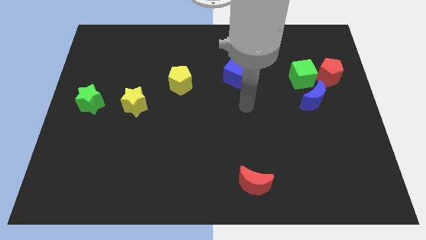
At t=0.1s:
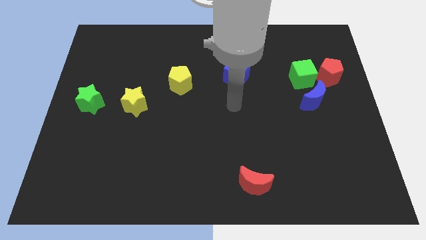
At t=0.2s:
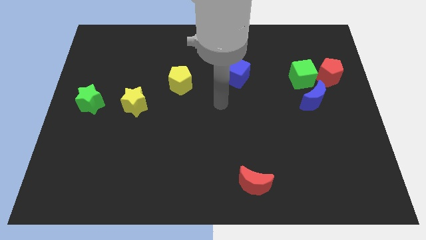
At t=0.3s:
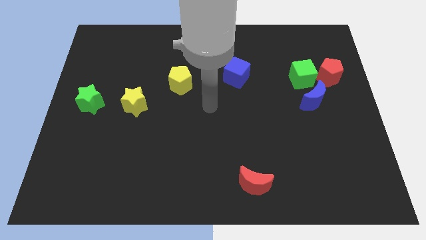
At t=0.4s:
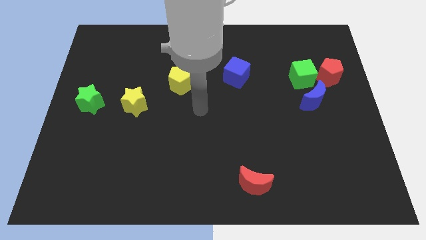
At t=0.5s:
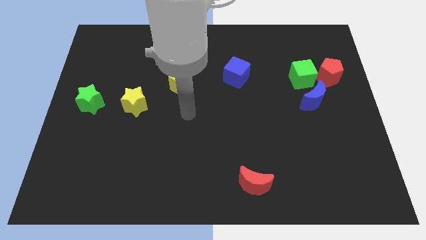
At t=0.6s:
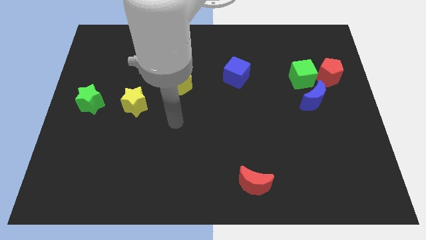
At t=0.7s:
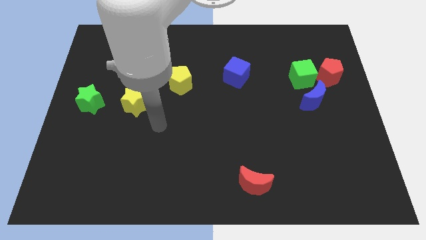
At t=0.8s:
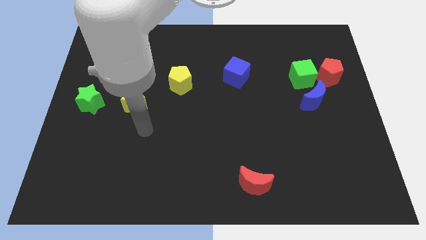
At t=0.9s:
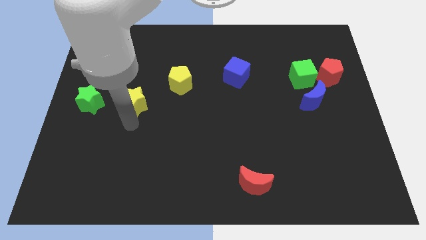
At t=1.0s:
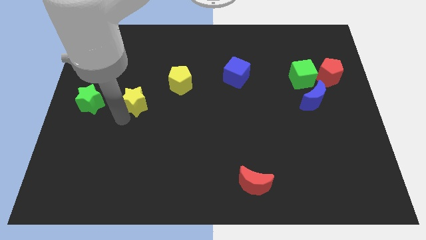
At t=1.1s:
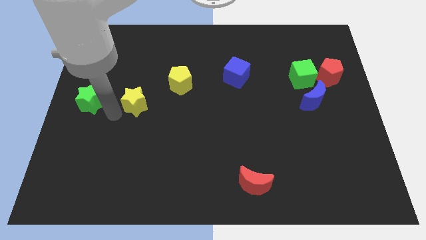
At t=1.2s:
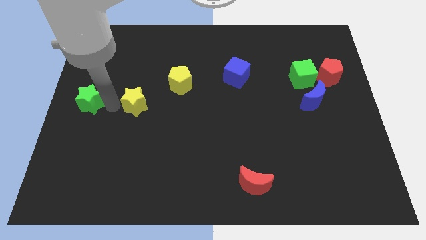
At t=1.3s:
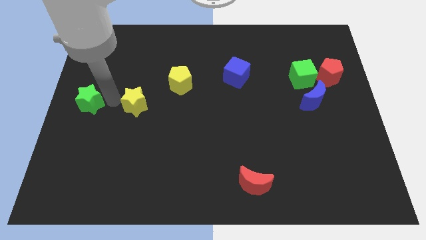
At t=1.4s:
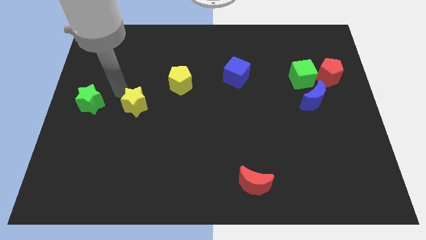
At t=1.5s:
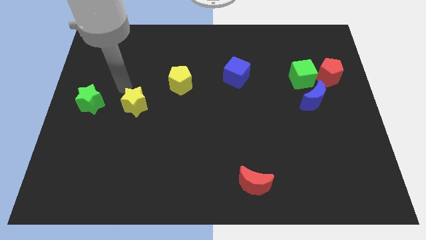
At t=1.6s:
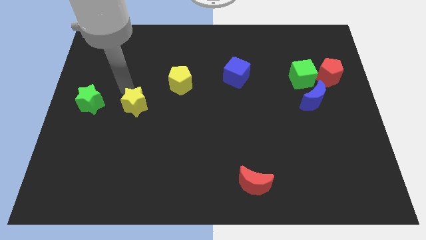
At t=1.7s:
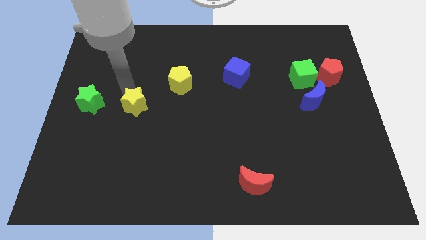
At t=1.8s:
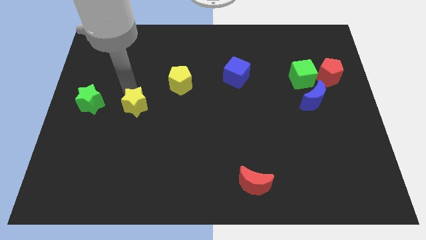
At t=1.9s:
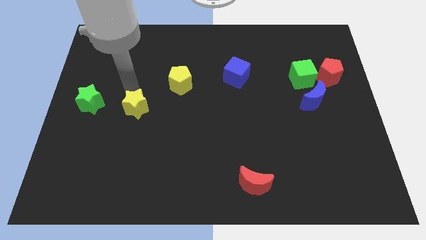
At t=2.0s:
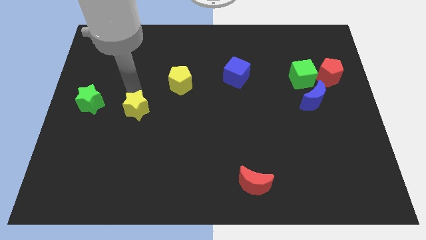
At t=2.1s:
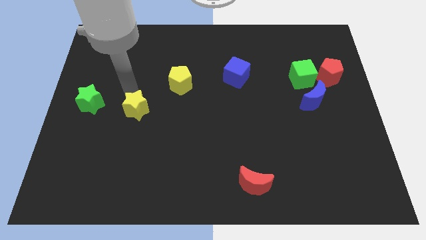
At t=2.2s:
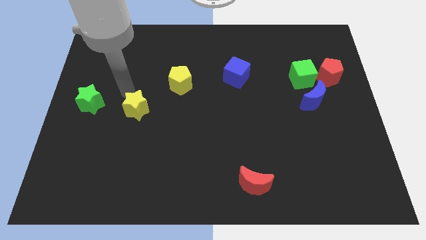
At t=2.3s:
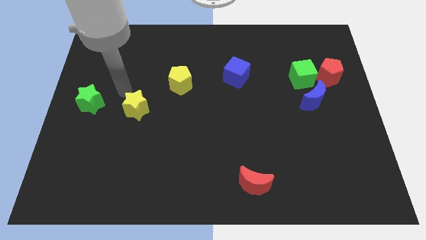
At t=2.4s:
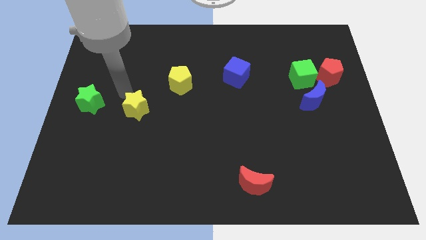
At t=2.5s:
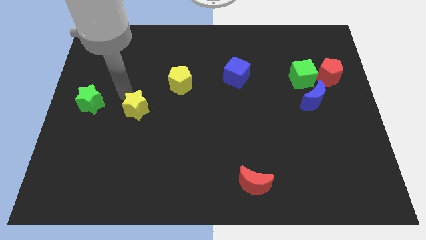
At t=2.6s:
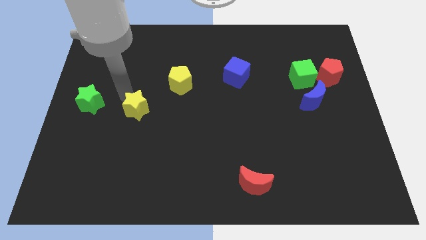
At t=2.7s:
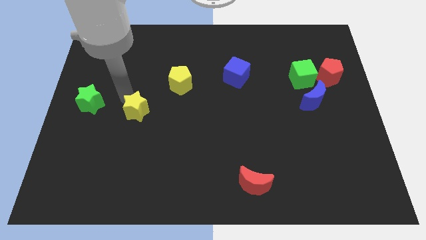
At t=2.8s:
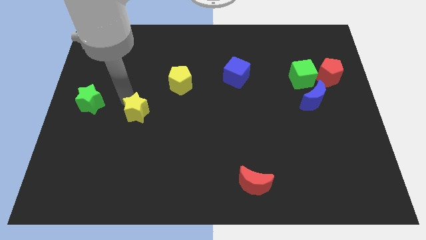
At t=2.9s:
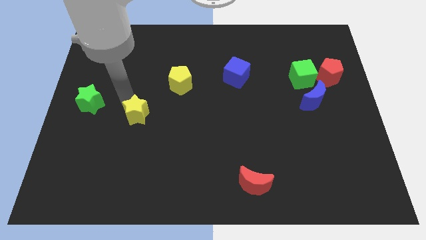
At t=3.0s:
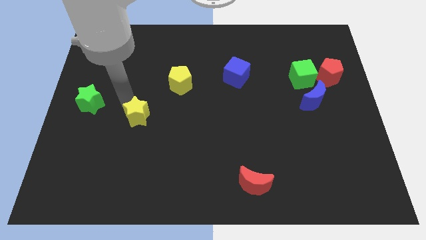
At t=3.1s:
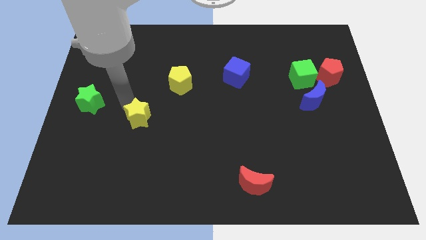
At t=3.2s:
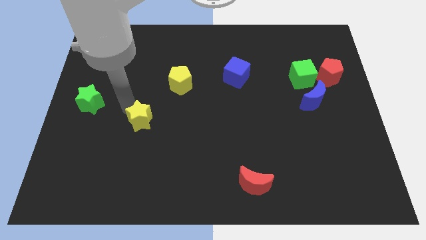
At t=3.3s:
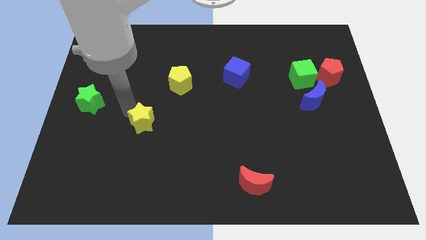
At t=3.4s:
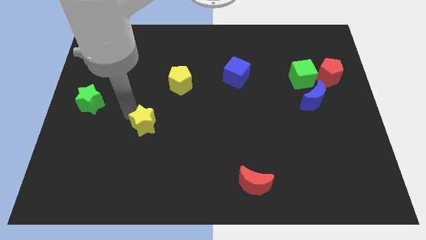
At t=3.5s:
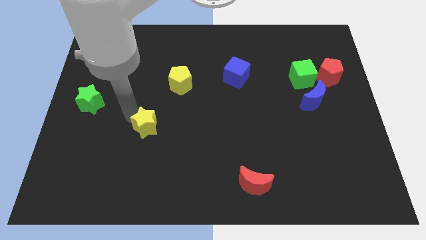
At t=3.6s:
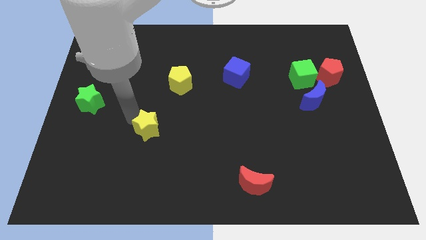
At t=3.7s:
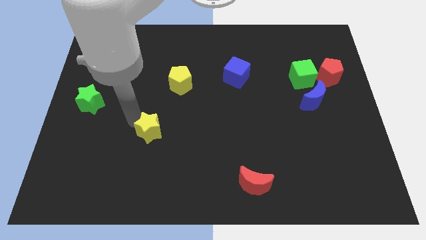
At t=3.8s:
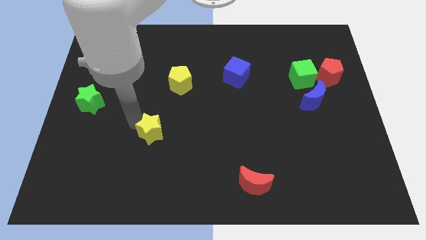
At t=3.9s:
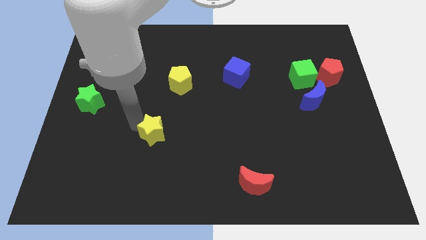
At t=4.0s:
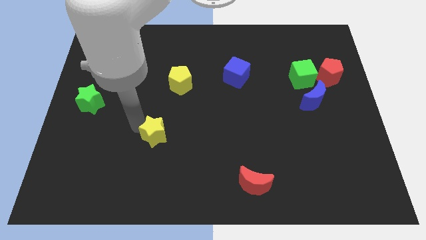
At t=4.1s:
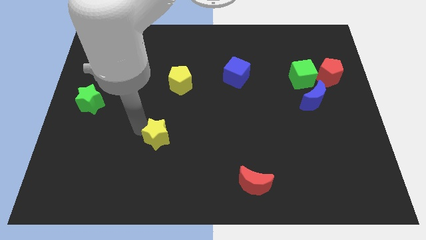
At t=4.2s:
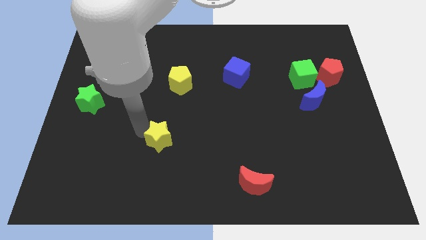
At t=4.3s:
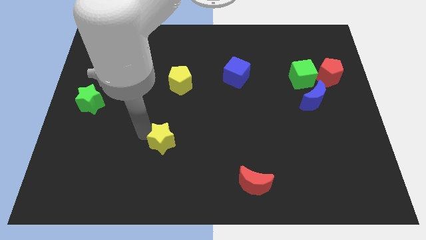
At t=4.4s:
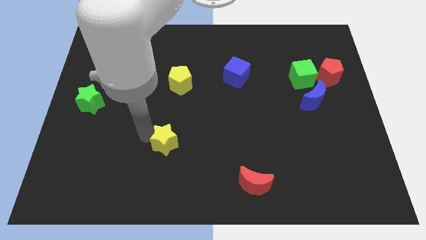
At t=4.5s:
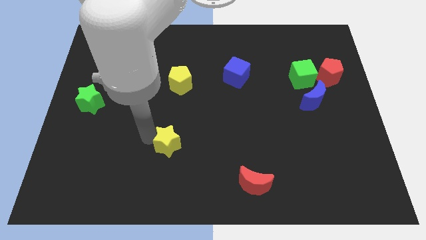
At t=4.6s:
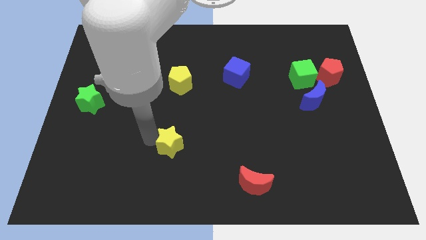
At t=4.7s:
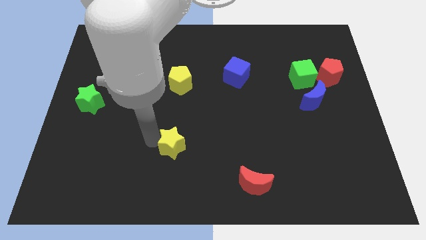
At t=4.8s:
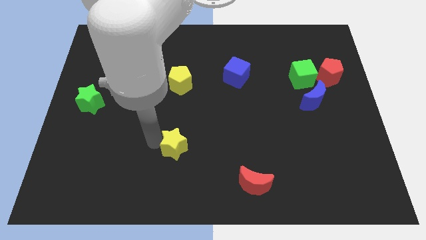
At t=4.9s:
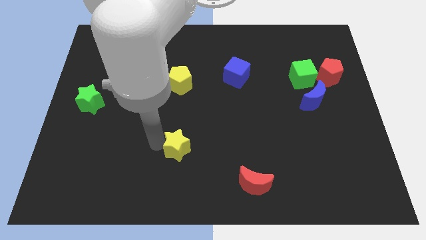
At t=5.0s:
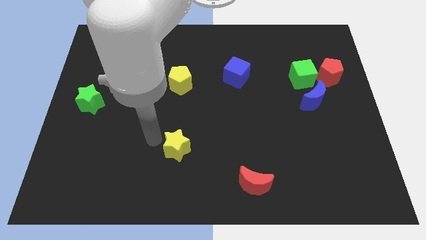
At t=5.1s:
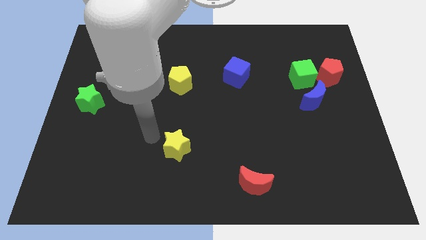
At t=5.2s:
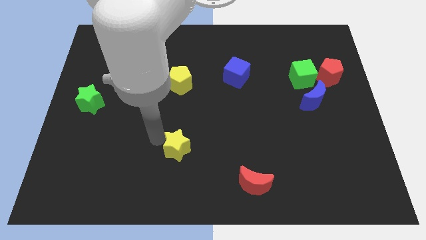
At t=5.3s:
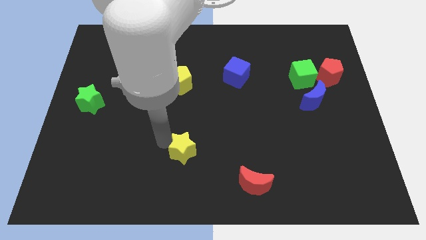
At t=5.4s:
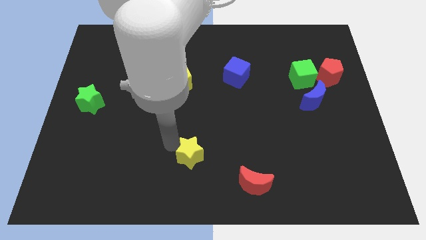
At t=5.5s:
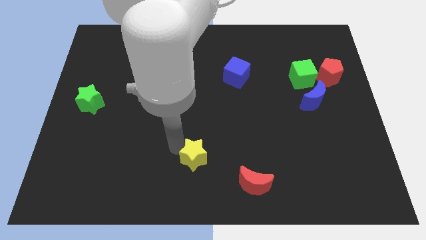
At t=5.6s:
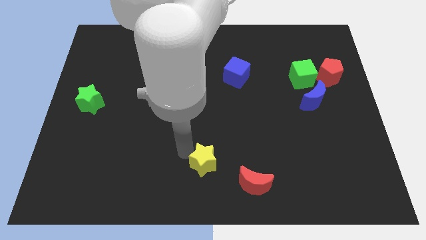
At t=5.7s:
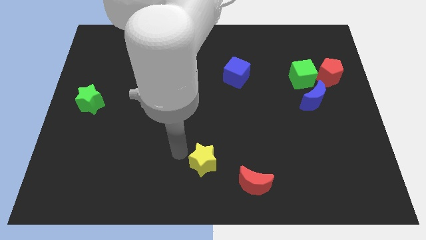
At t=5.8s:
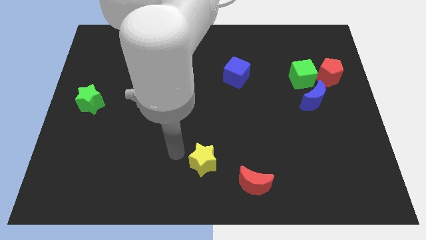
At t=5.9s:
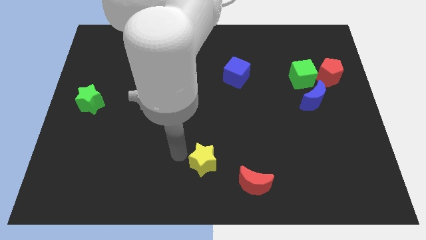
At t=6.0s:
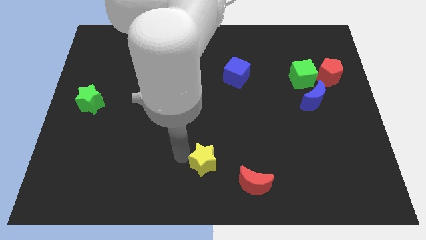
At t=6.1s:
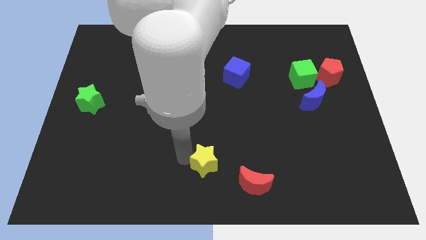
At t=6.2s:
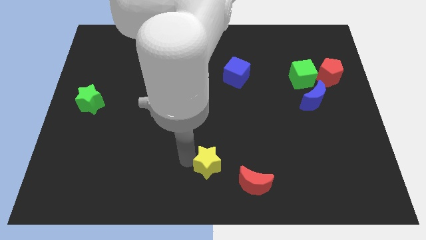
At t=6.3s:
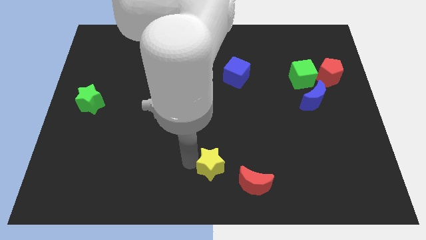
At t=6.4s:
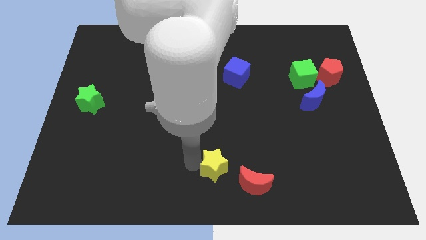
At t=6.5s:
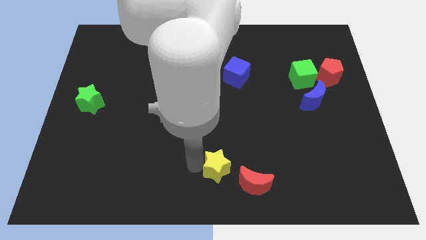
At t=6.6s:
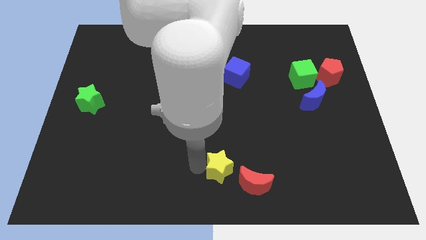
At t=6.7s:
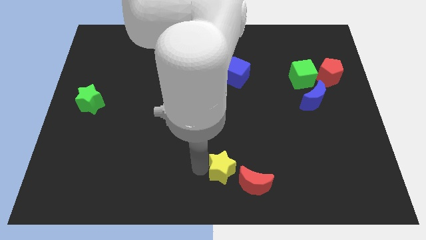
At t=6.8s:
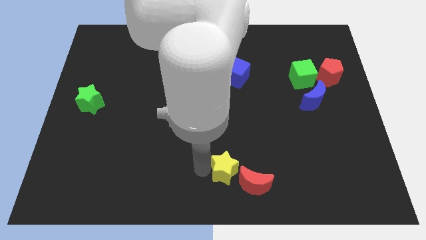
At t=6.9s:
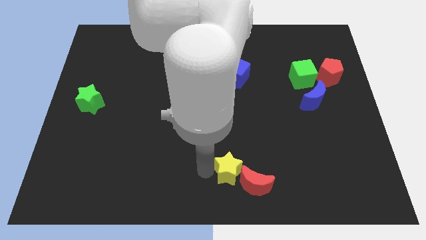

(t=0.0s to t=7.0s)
slide the yellow star to the red moon
